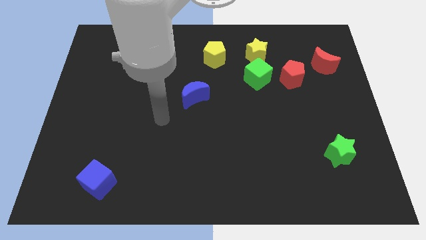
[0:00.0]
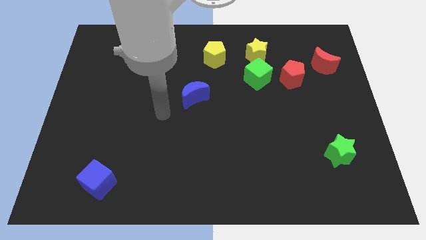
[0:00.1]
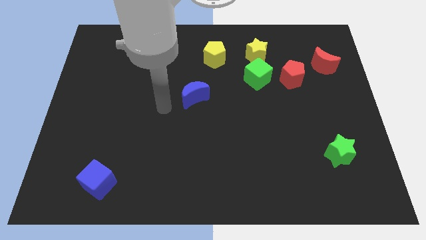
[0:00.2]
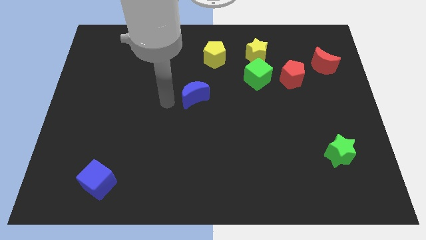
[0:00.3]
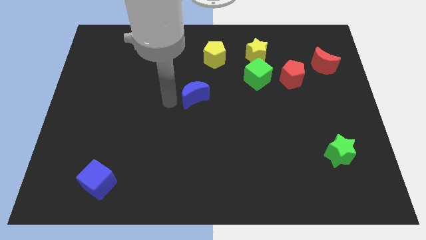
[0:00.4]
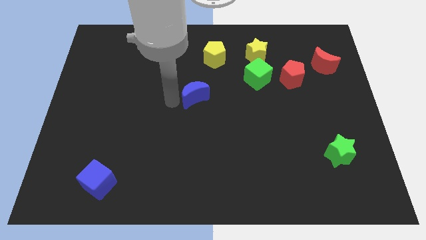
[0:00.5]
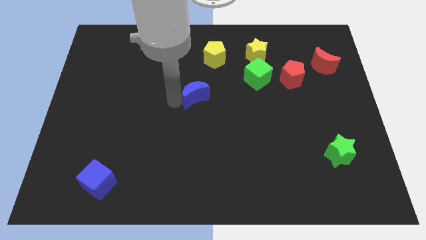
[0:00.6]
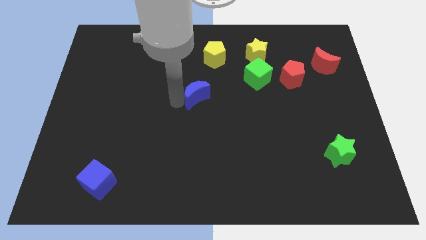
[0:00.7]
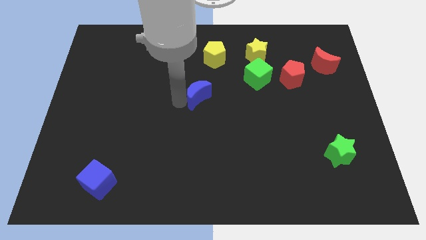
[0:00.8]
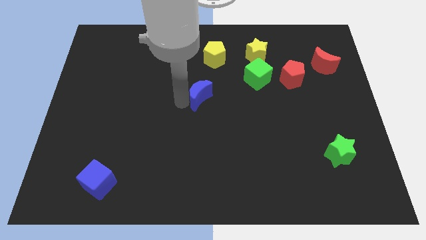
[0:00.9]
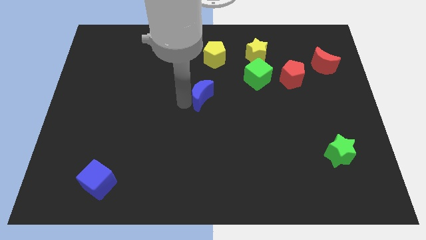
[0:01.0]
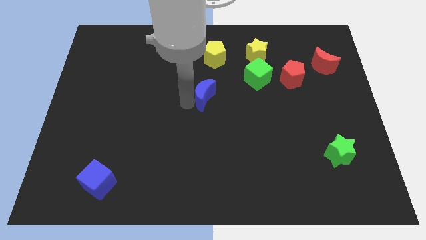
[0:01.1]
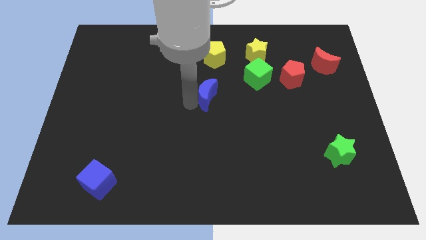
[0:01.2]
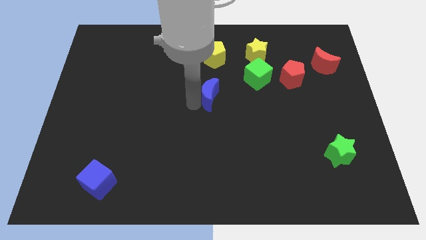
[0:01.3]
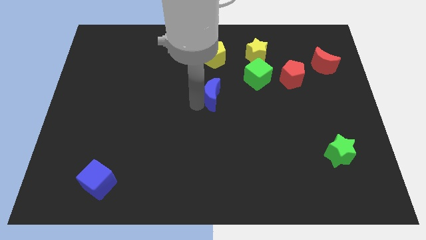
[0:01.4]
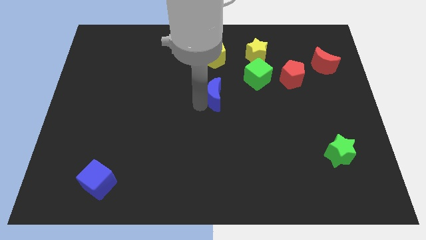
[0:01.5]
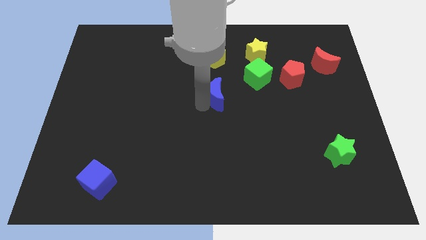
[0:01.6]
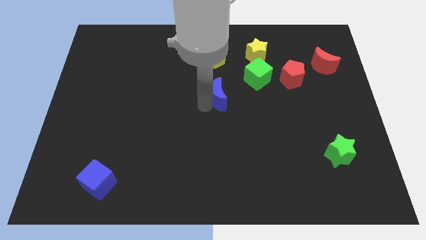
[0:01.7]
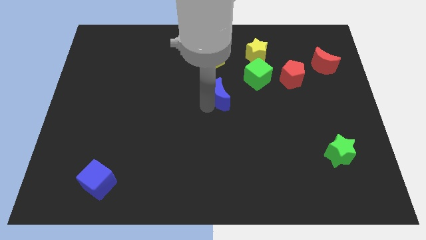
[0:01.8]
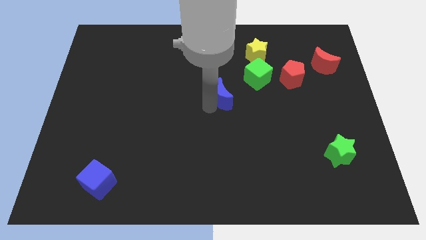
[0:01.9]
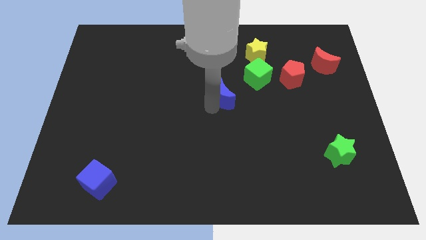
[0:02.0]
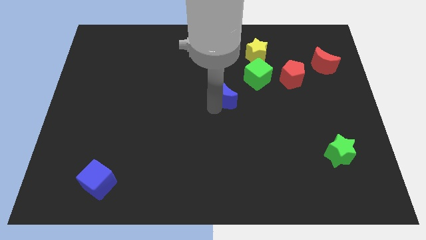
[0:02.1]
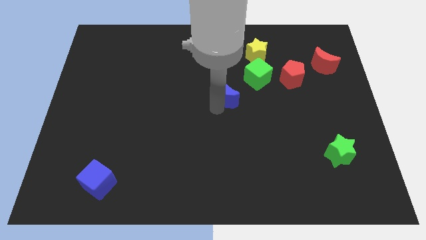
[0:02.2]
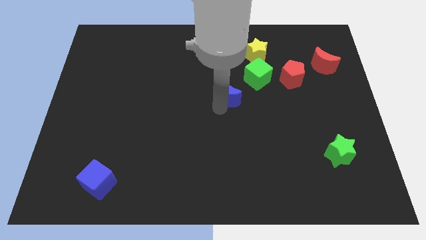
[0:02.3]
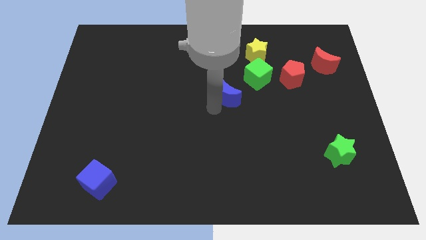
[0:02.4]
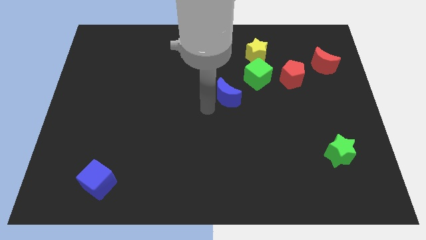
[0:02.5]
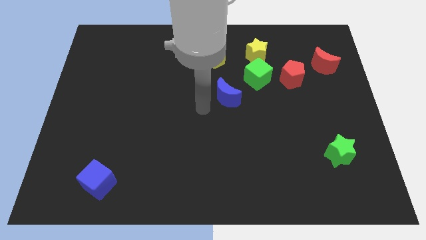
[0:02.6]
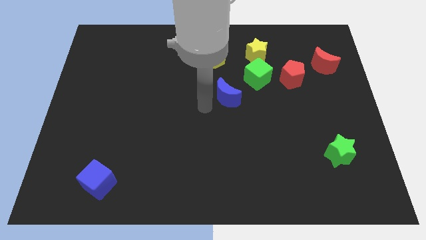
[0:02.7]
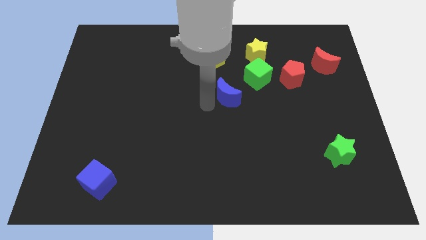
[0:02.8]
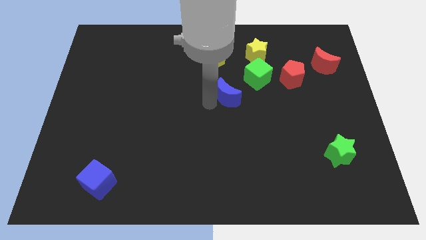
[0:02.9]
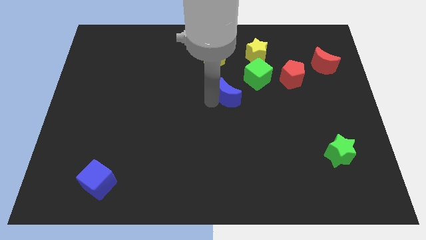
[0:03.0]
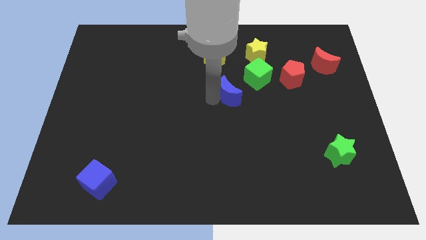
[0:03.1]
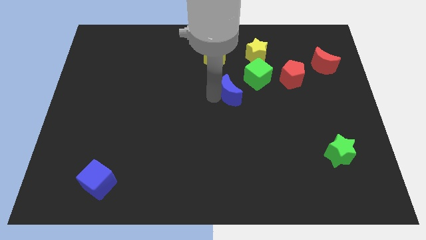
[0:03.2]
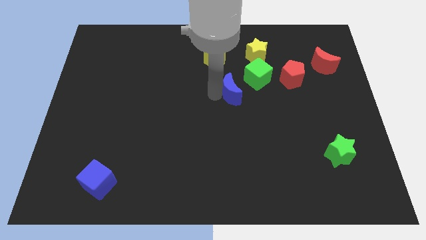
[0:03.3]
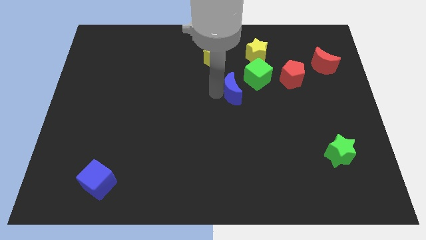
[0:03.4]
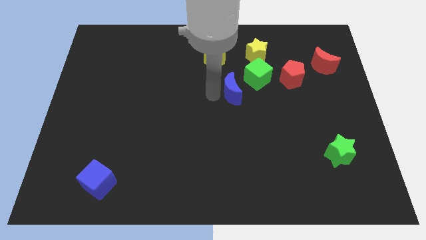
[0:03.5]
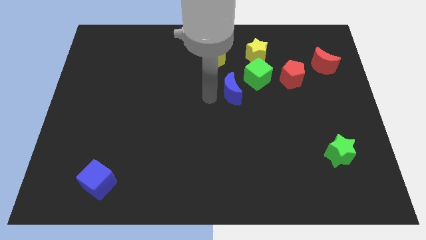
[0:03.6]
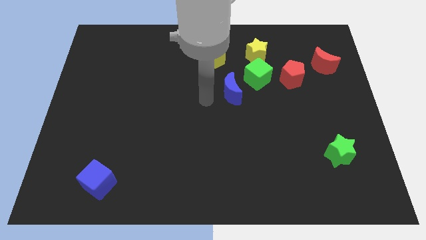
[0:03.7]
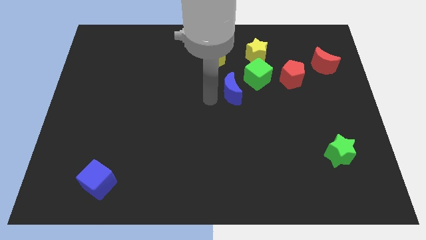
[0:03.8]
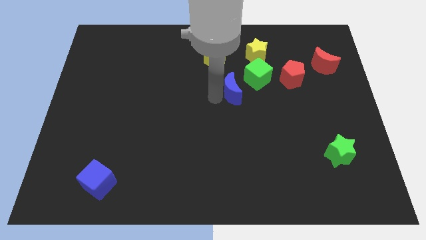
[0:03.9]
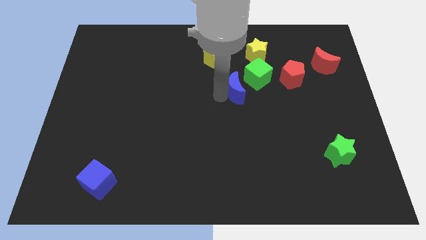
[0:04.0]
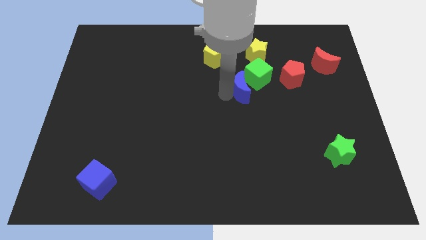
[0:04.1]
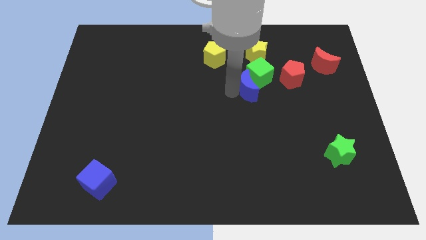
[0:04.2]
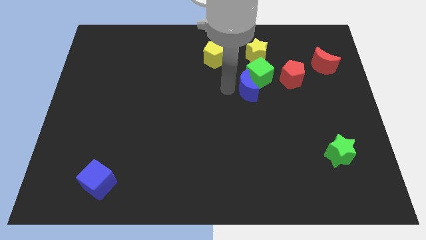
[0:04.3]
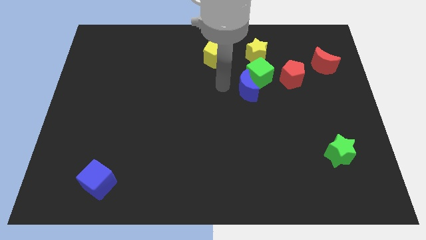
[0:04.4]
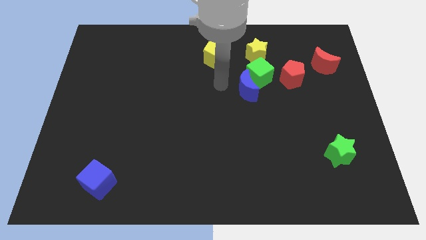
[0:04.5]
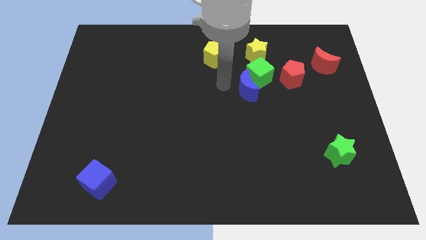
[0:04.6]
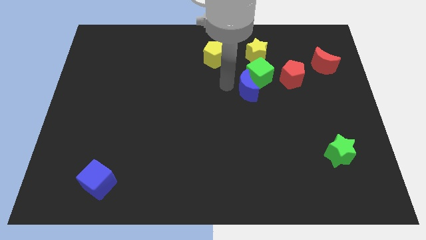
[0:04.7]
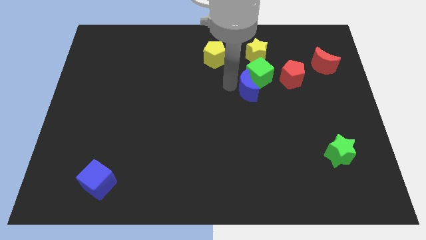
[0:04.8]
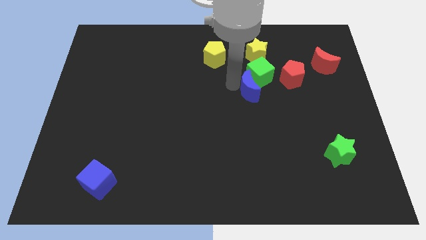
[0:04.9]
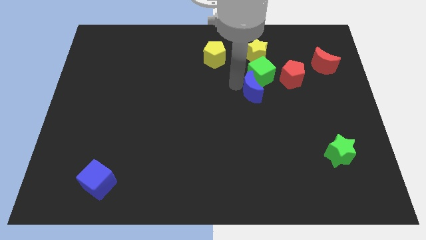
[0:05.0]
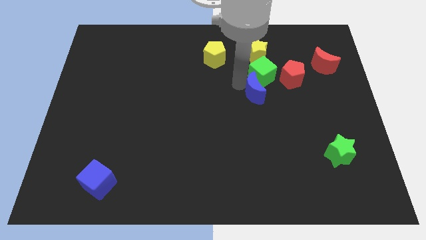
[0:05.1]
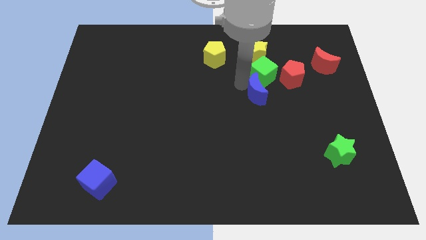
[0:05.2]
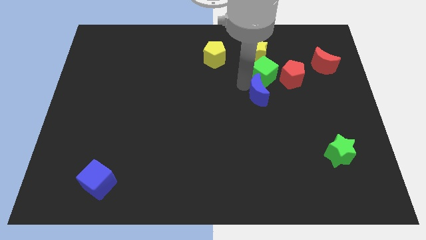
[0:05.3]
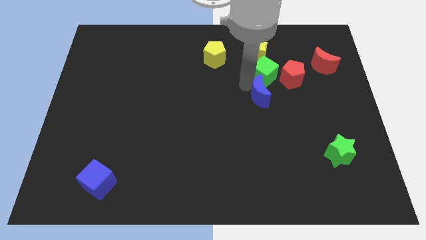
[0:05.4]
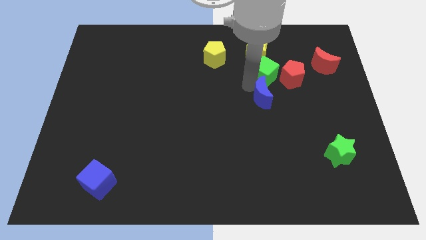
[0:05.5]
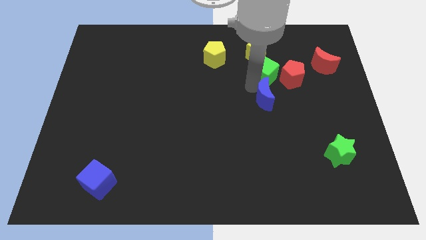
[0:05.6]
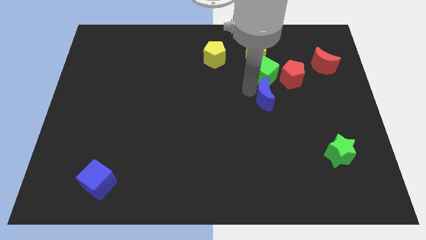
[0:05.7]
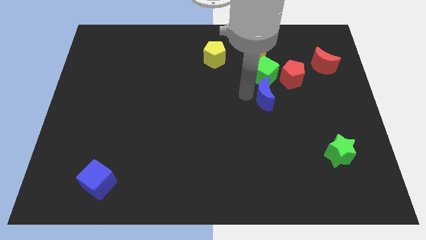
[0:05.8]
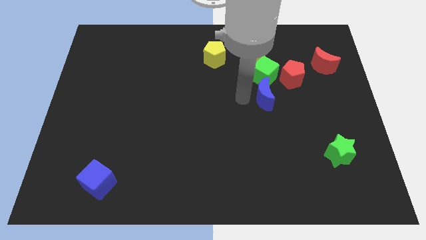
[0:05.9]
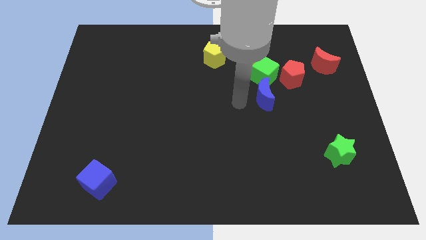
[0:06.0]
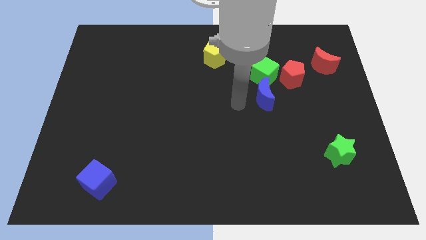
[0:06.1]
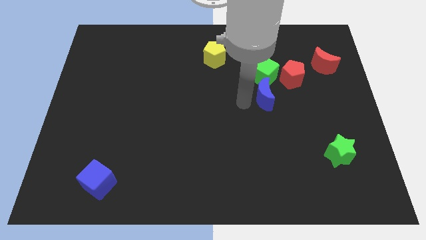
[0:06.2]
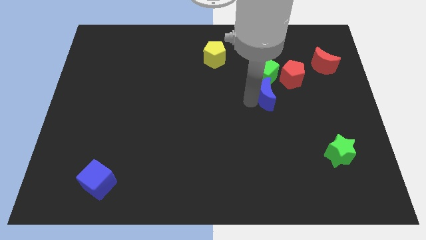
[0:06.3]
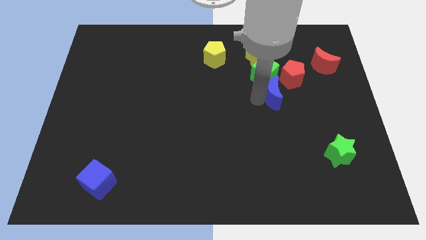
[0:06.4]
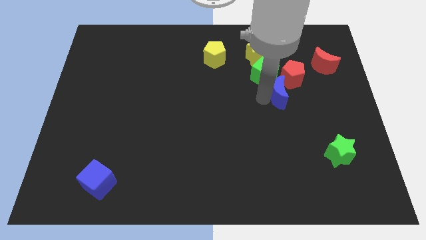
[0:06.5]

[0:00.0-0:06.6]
slide the blue moon right

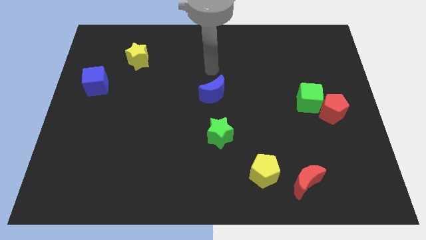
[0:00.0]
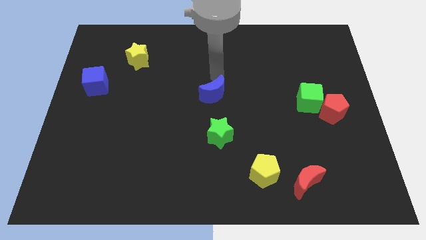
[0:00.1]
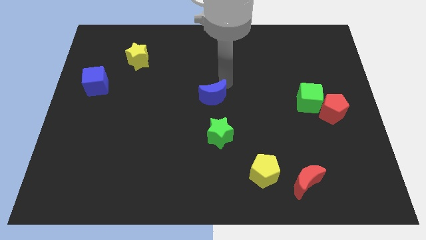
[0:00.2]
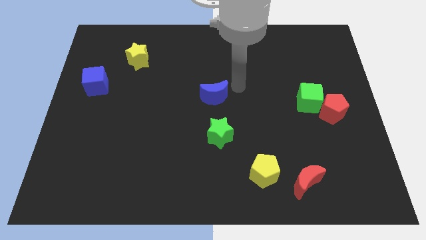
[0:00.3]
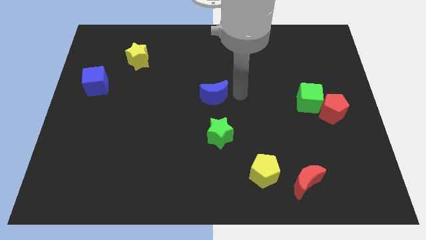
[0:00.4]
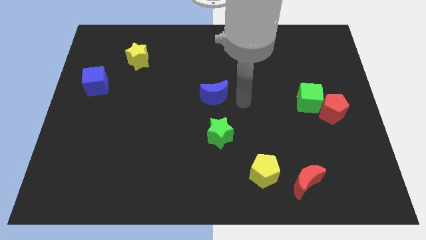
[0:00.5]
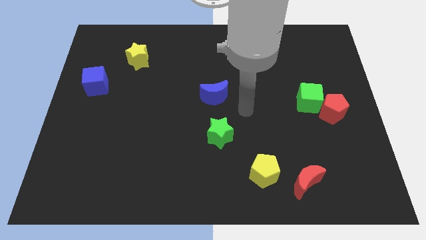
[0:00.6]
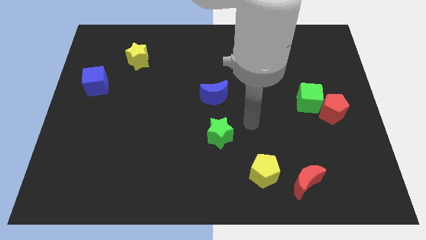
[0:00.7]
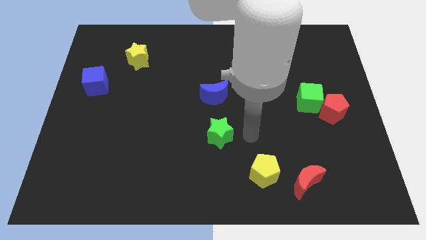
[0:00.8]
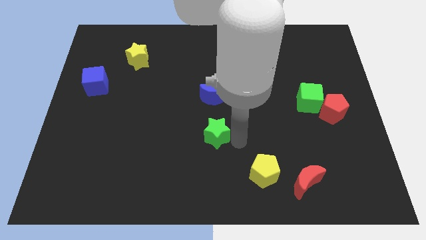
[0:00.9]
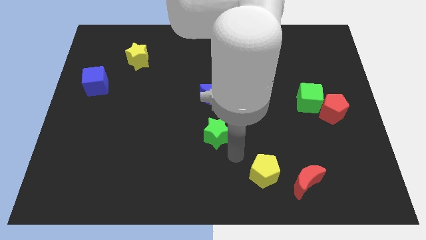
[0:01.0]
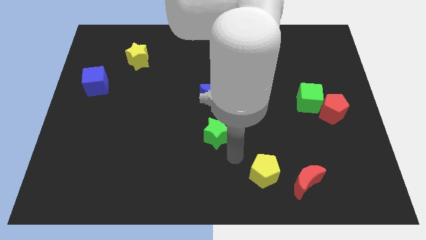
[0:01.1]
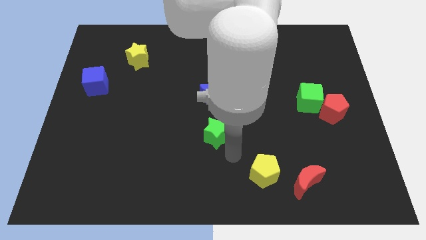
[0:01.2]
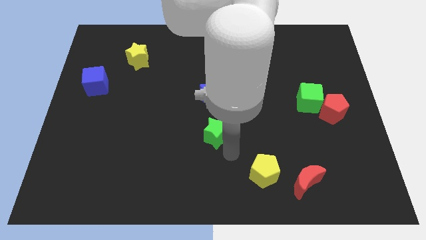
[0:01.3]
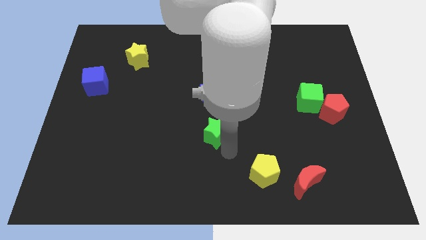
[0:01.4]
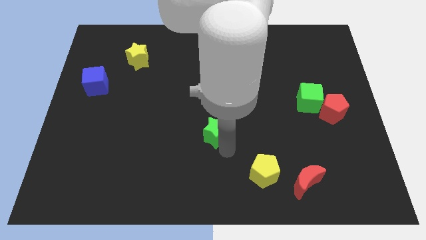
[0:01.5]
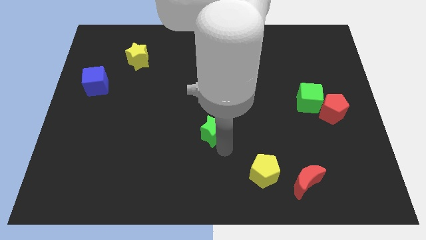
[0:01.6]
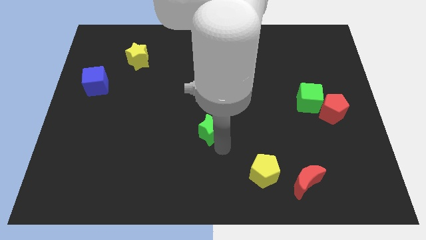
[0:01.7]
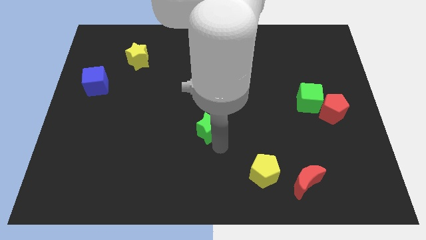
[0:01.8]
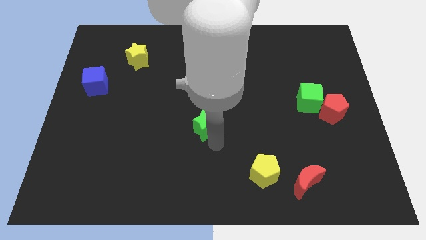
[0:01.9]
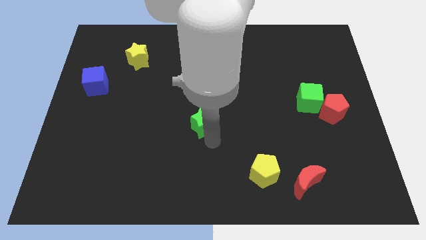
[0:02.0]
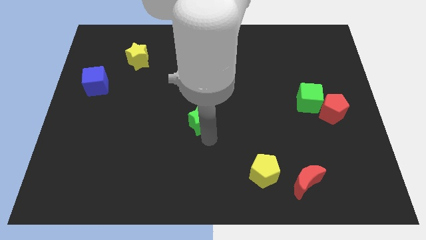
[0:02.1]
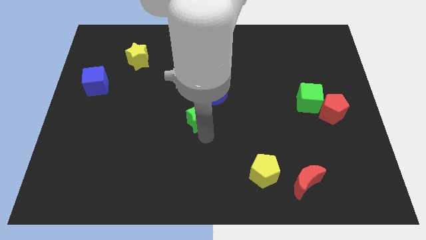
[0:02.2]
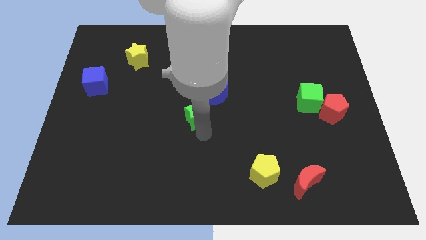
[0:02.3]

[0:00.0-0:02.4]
slightly slide the green star up and left
